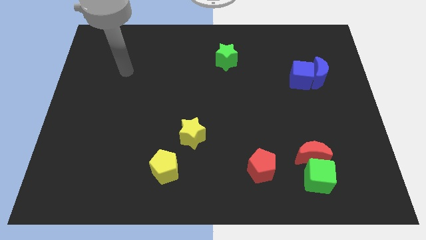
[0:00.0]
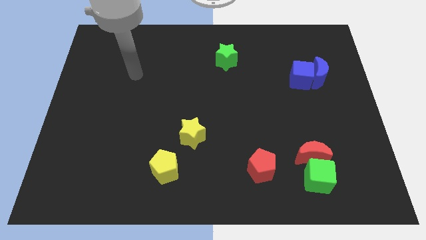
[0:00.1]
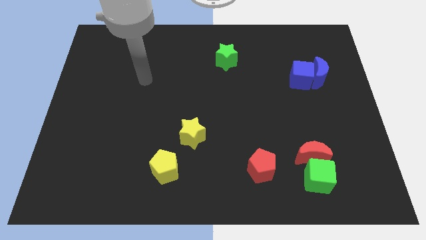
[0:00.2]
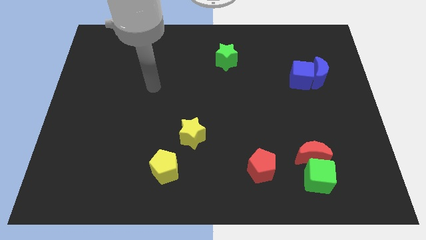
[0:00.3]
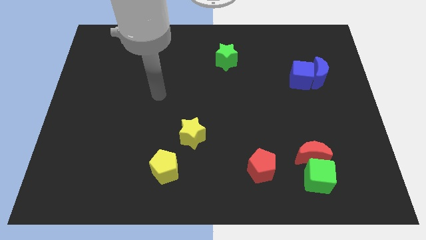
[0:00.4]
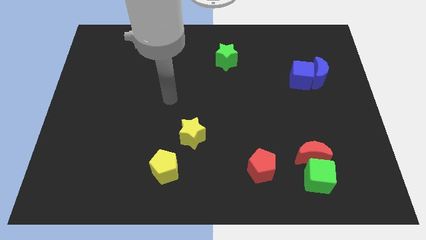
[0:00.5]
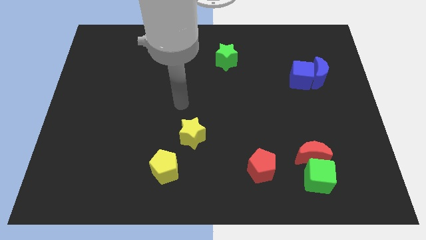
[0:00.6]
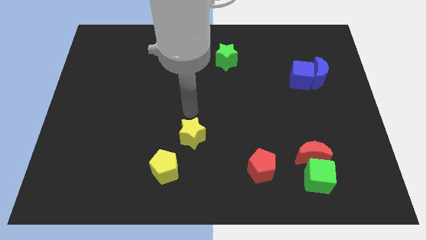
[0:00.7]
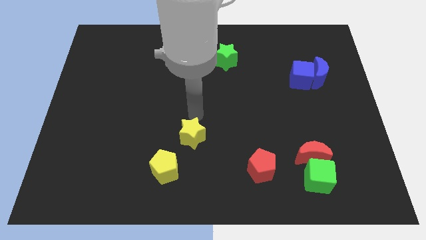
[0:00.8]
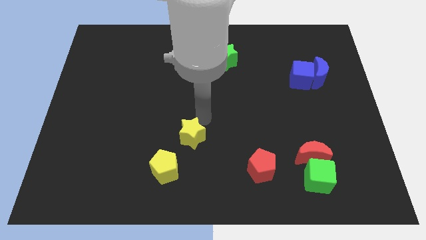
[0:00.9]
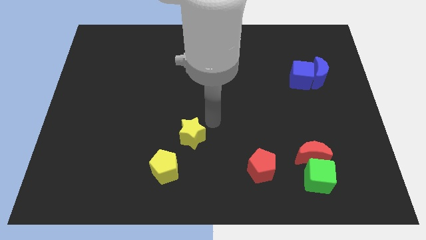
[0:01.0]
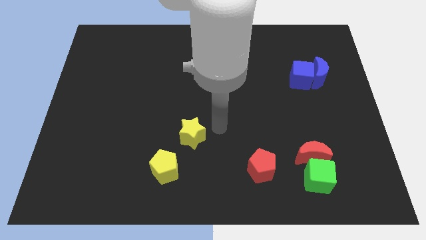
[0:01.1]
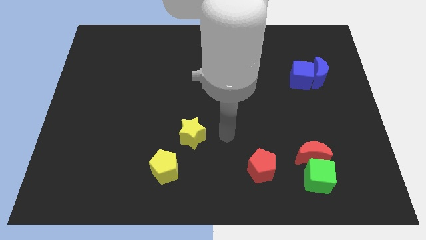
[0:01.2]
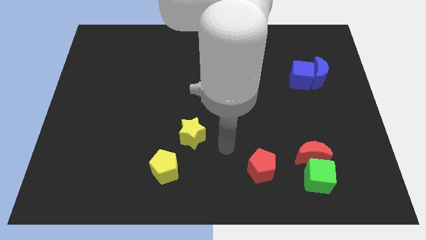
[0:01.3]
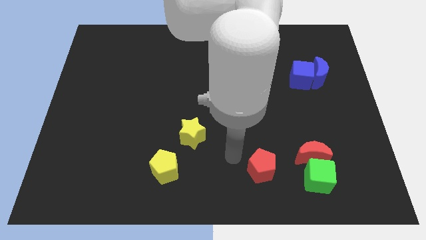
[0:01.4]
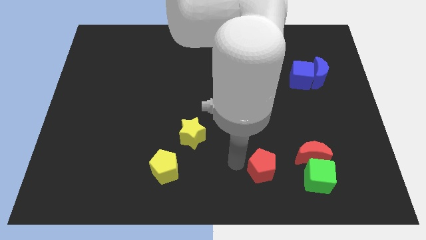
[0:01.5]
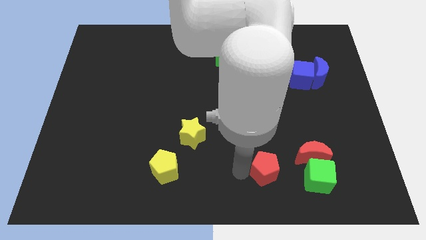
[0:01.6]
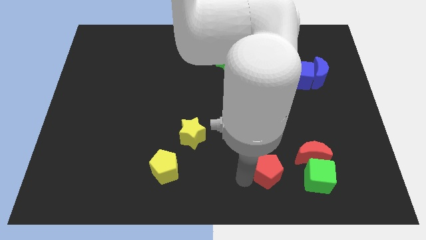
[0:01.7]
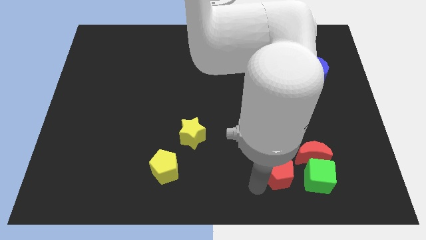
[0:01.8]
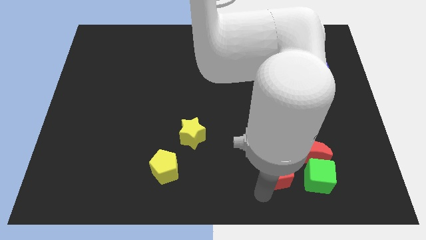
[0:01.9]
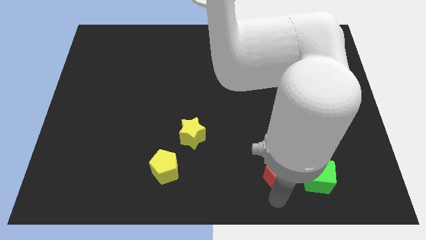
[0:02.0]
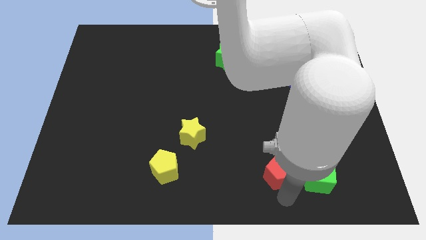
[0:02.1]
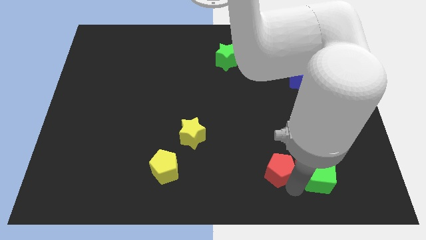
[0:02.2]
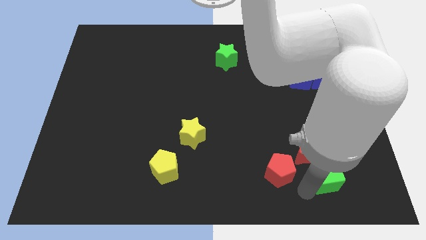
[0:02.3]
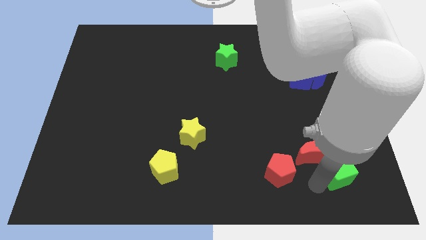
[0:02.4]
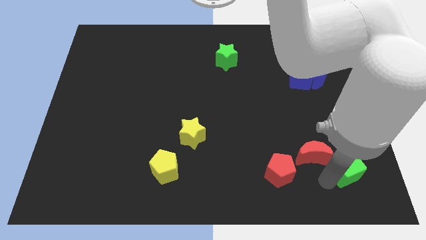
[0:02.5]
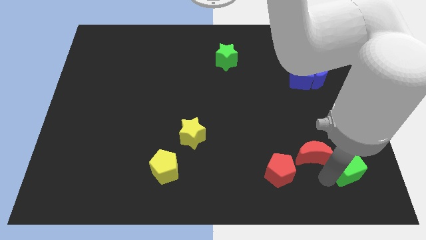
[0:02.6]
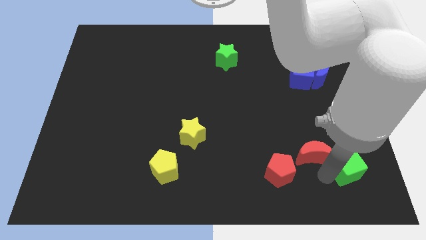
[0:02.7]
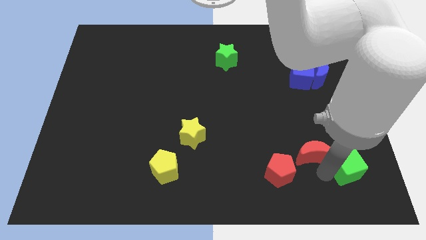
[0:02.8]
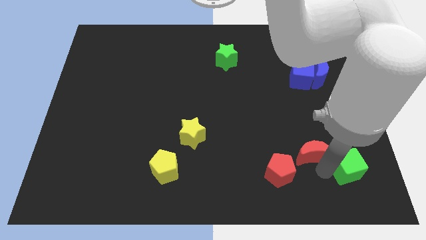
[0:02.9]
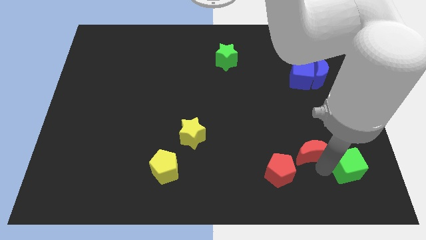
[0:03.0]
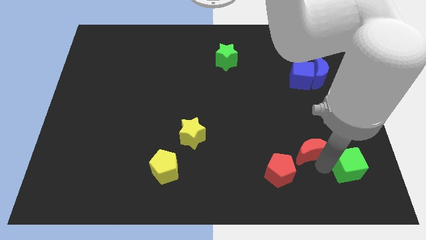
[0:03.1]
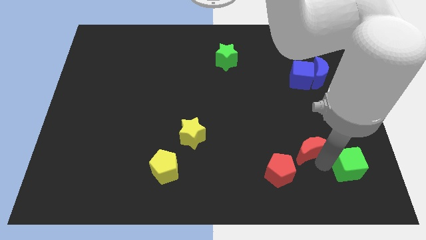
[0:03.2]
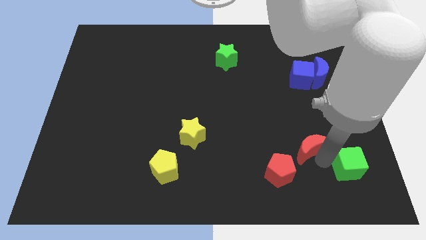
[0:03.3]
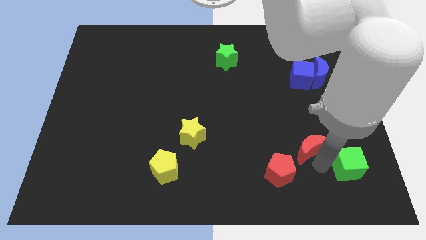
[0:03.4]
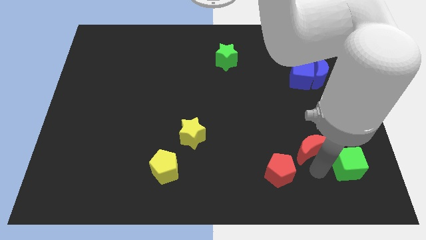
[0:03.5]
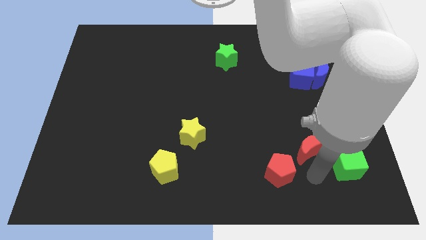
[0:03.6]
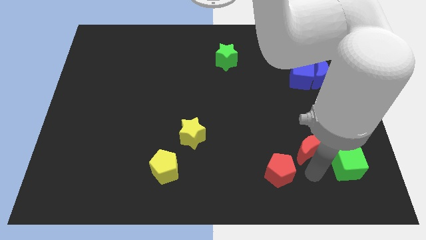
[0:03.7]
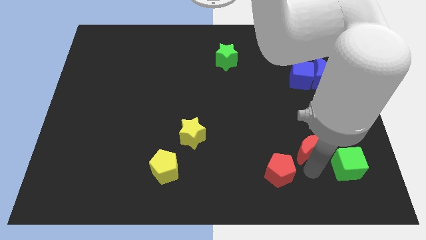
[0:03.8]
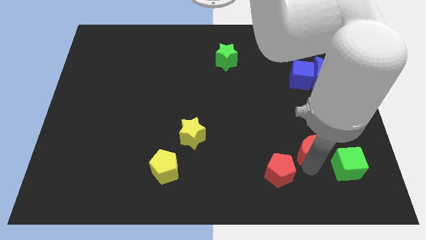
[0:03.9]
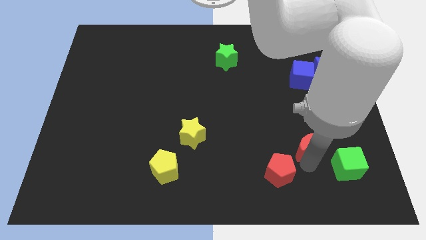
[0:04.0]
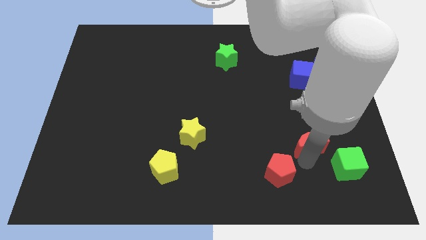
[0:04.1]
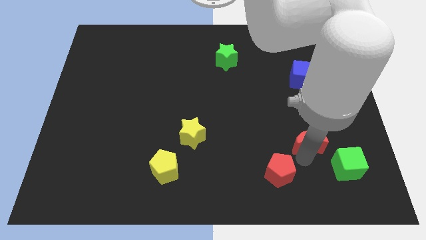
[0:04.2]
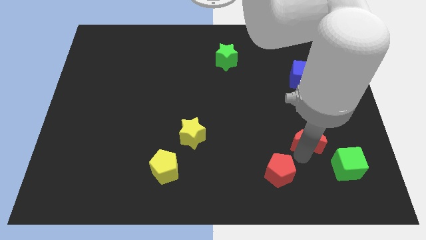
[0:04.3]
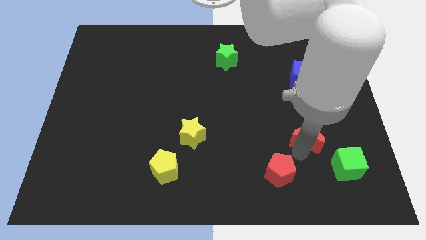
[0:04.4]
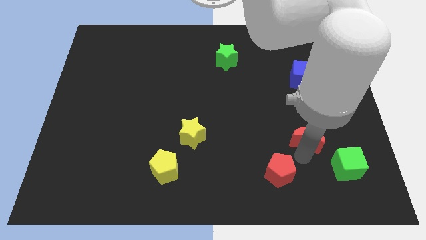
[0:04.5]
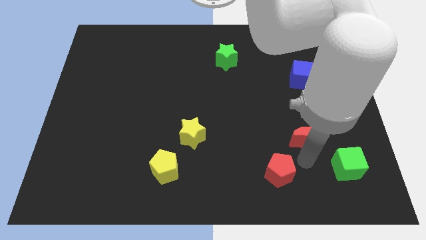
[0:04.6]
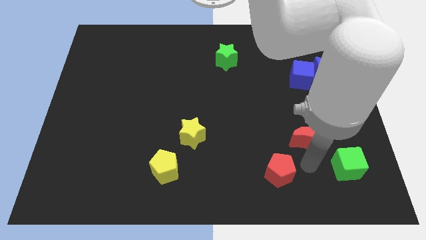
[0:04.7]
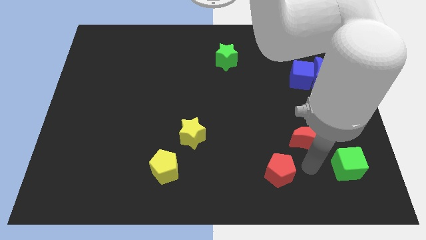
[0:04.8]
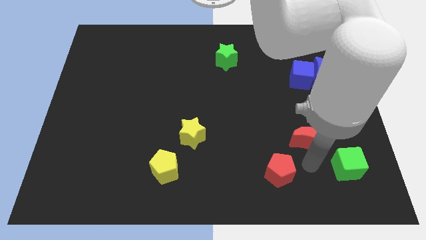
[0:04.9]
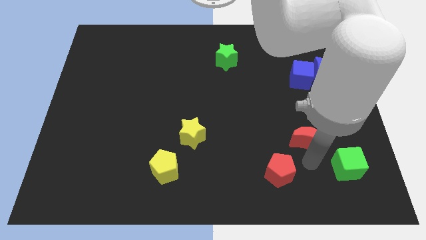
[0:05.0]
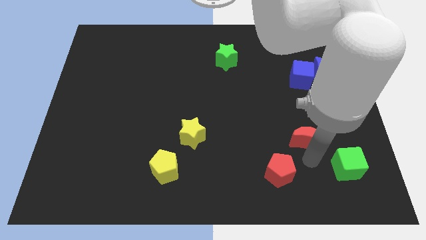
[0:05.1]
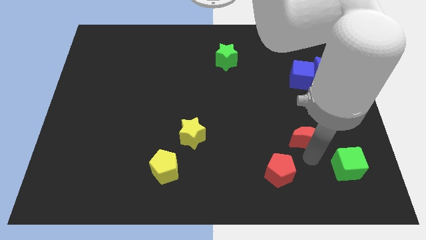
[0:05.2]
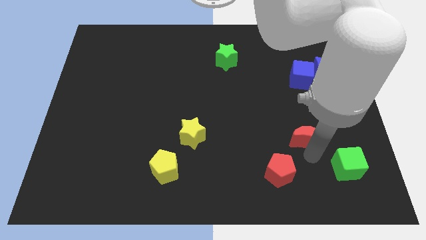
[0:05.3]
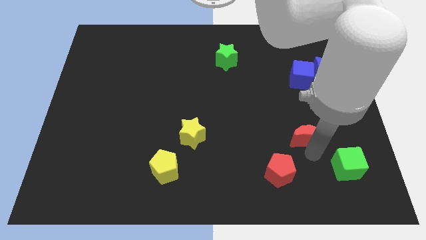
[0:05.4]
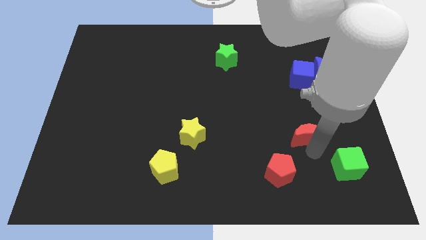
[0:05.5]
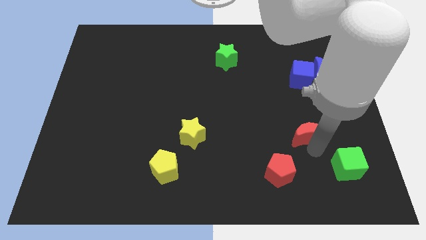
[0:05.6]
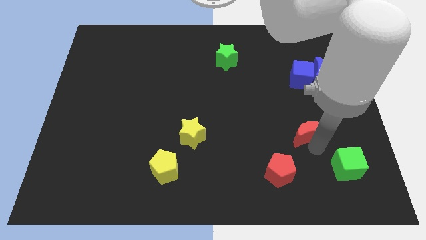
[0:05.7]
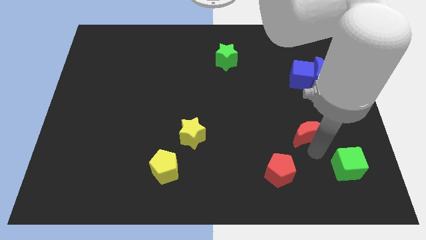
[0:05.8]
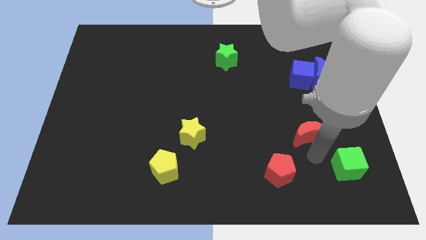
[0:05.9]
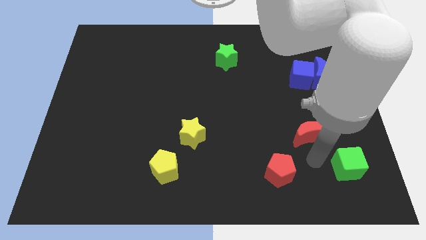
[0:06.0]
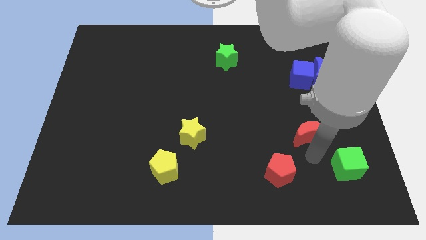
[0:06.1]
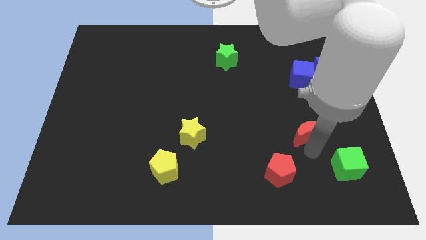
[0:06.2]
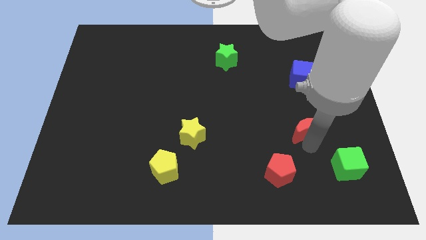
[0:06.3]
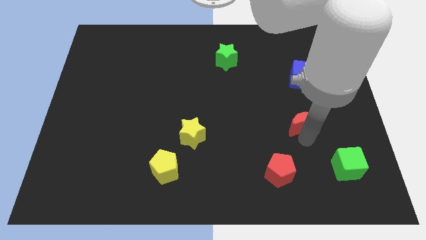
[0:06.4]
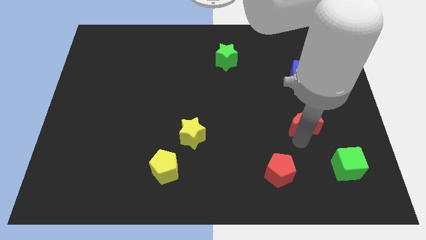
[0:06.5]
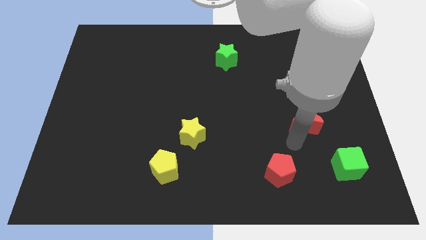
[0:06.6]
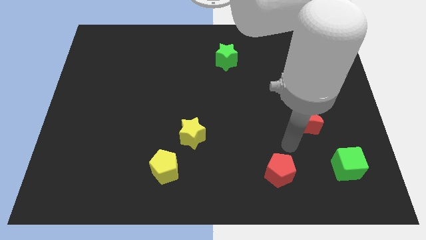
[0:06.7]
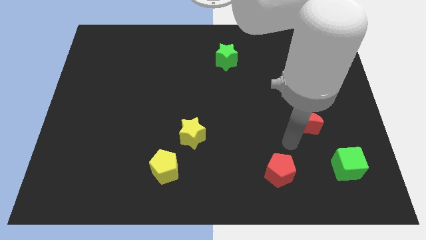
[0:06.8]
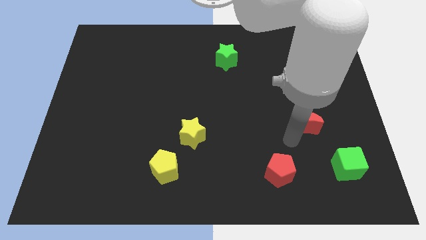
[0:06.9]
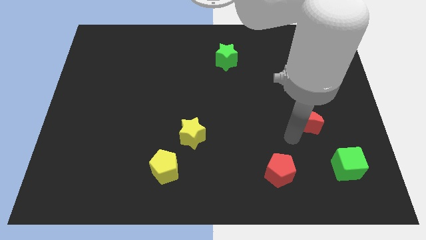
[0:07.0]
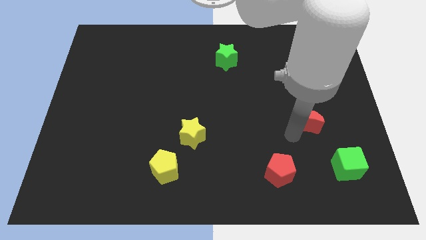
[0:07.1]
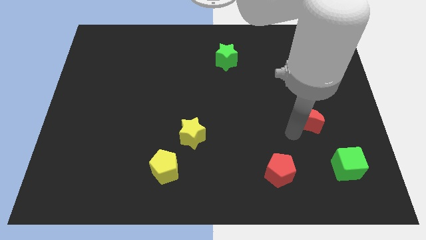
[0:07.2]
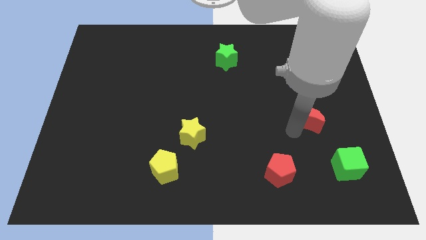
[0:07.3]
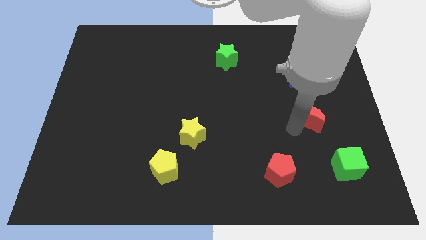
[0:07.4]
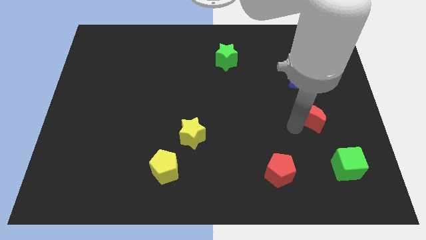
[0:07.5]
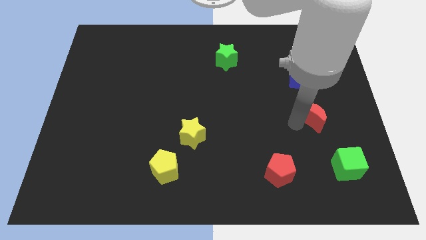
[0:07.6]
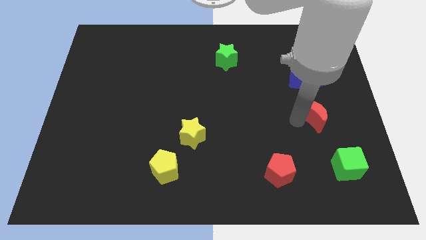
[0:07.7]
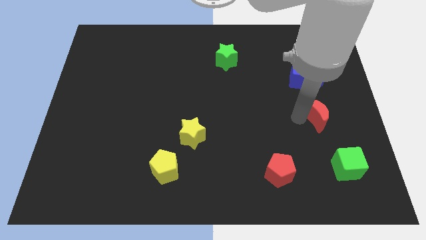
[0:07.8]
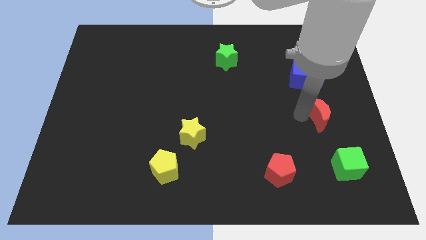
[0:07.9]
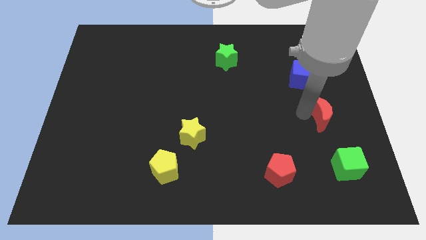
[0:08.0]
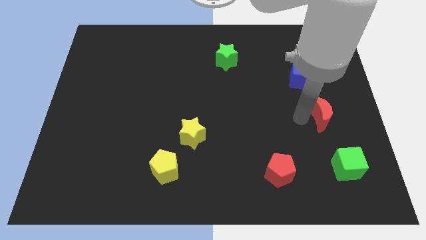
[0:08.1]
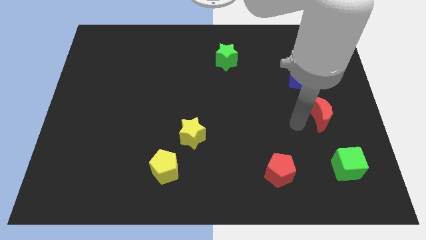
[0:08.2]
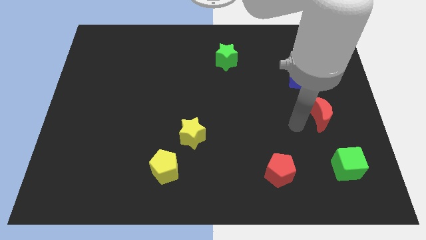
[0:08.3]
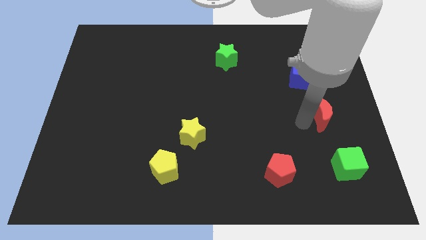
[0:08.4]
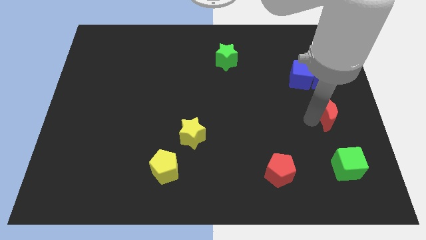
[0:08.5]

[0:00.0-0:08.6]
slide the red moon to the center right
